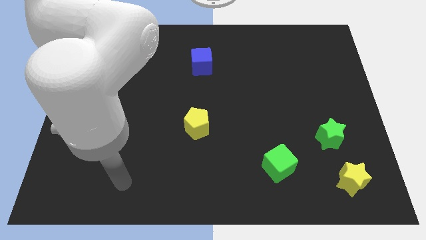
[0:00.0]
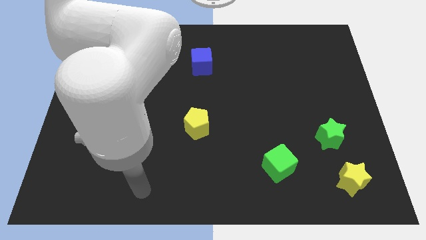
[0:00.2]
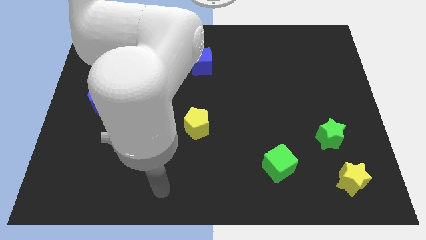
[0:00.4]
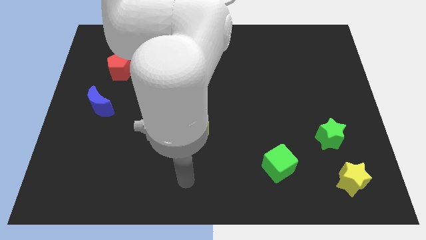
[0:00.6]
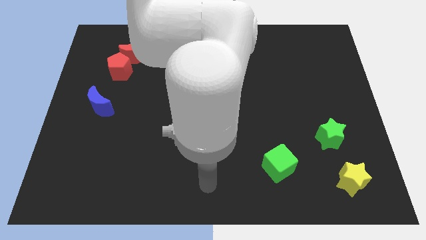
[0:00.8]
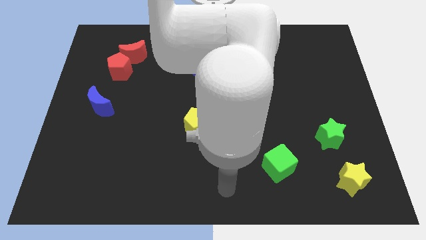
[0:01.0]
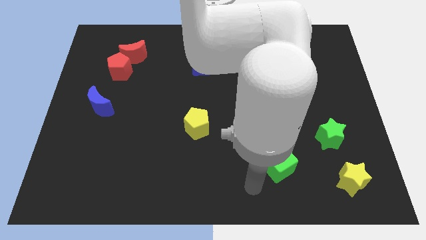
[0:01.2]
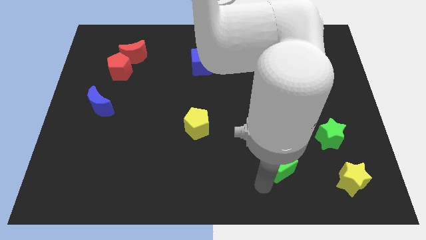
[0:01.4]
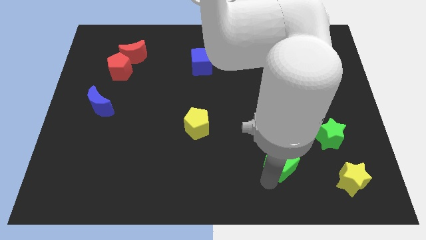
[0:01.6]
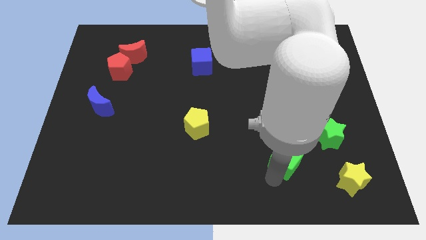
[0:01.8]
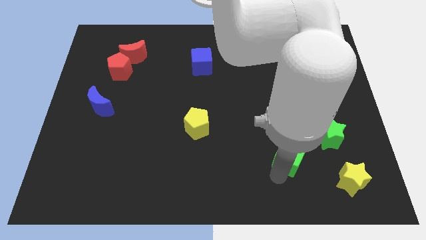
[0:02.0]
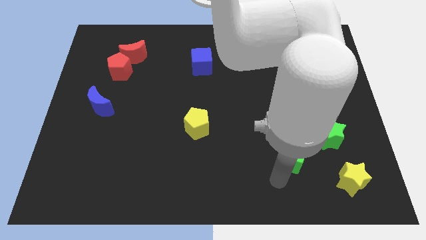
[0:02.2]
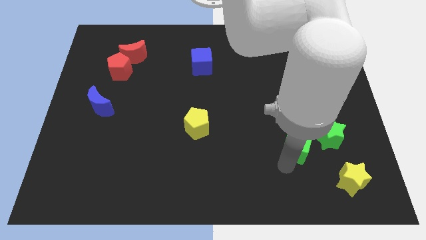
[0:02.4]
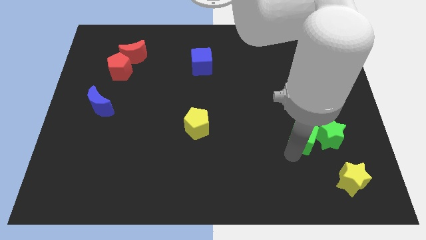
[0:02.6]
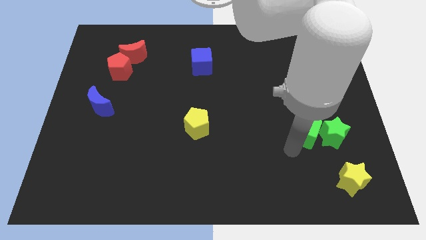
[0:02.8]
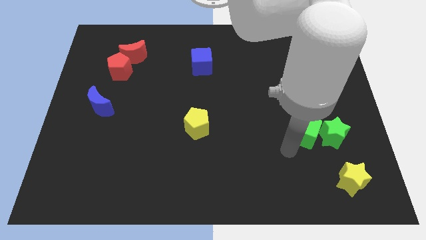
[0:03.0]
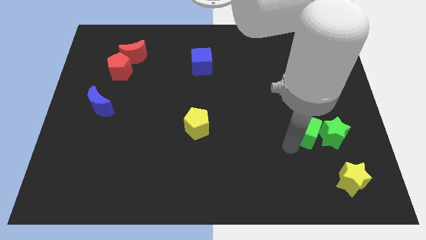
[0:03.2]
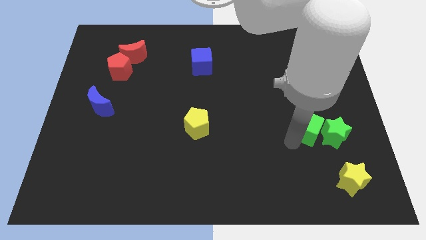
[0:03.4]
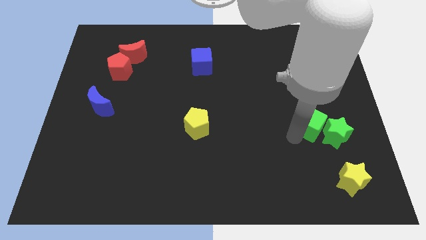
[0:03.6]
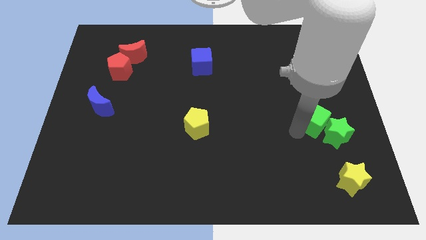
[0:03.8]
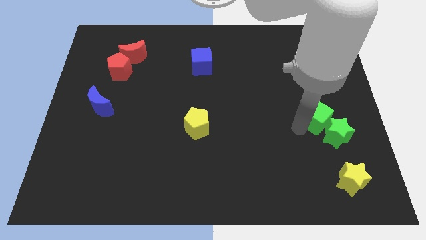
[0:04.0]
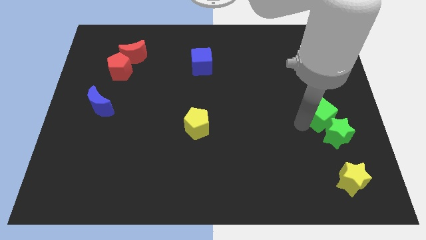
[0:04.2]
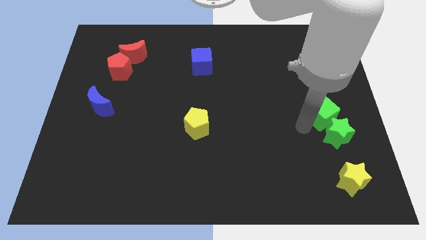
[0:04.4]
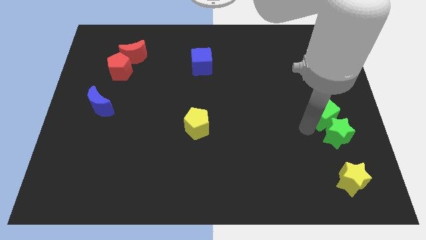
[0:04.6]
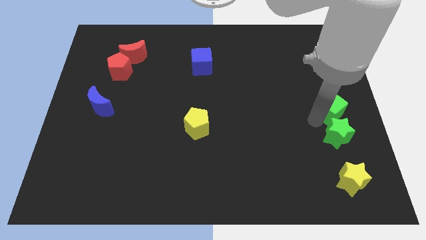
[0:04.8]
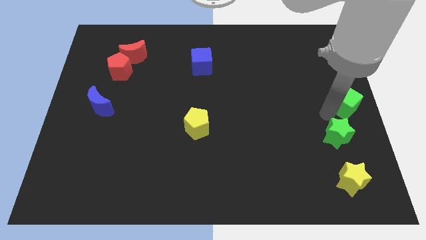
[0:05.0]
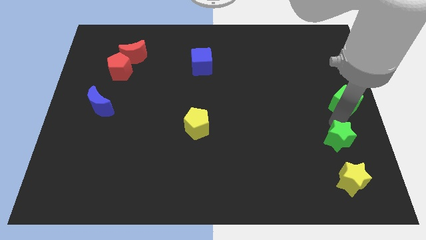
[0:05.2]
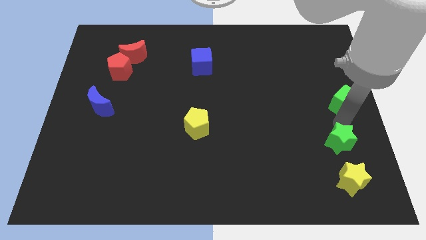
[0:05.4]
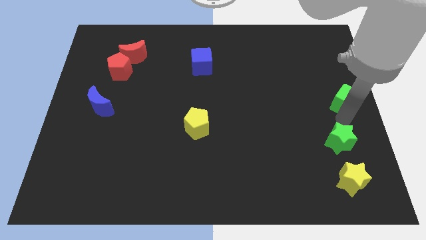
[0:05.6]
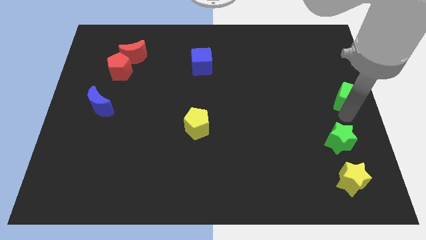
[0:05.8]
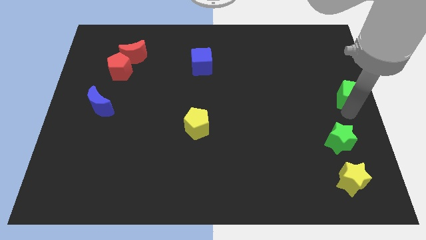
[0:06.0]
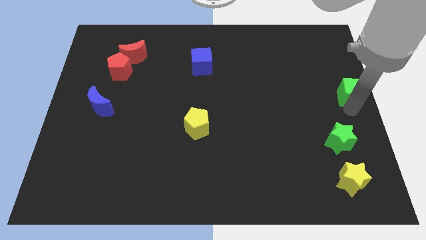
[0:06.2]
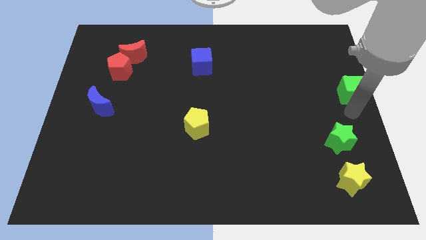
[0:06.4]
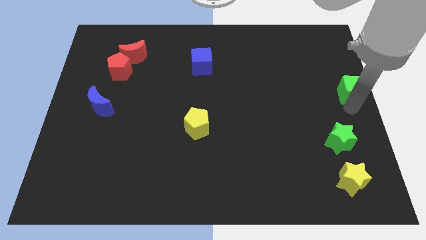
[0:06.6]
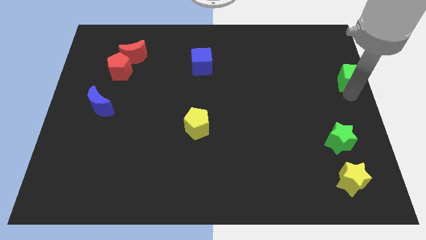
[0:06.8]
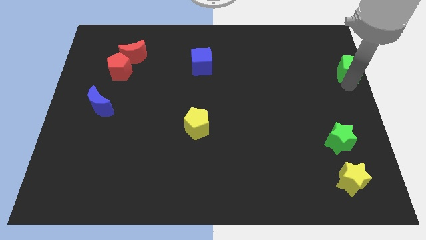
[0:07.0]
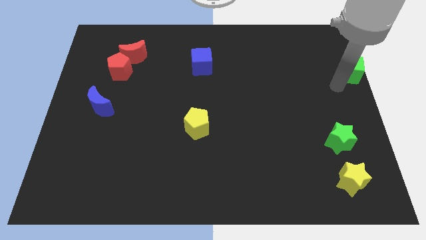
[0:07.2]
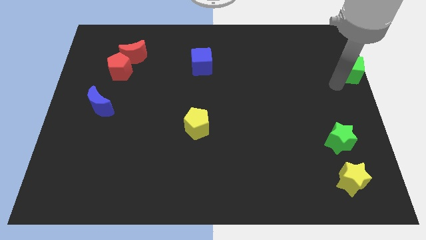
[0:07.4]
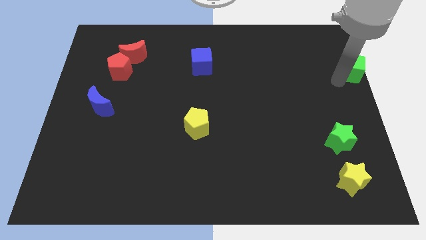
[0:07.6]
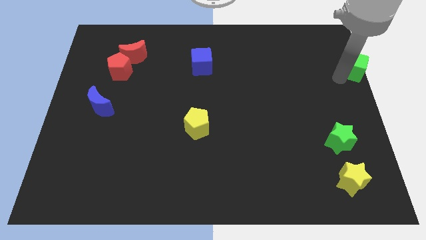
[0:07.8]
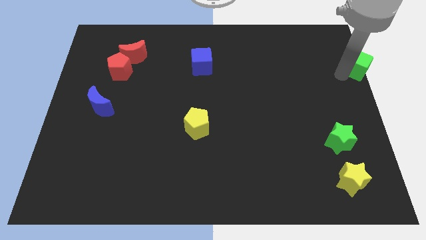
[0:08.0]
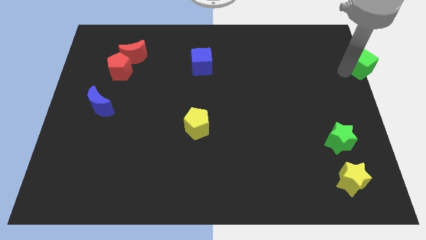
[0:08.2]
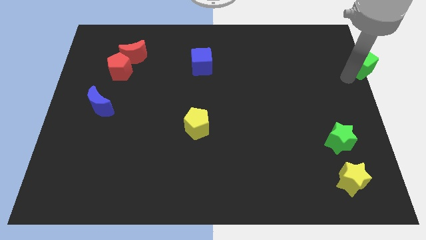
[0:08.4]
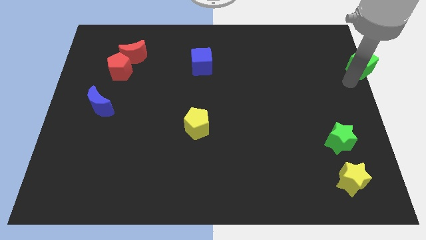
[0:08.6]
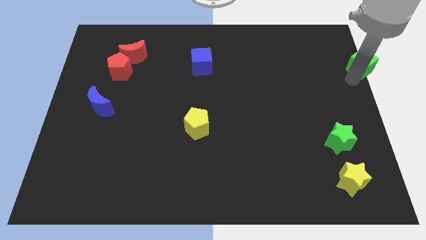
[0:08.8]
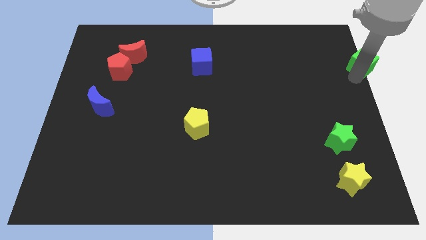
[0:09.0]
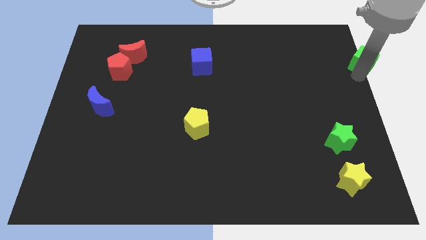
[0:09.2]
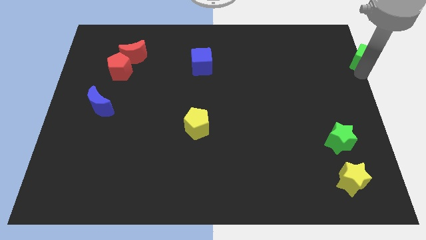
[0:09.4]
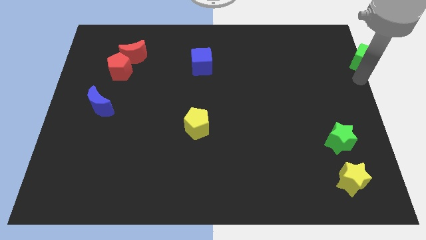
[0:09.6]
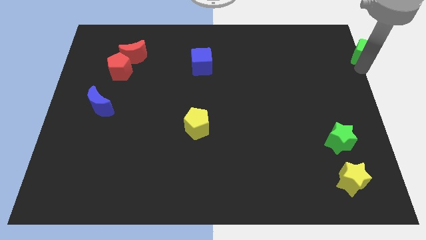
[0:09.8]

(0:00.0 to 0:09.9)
put the green cube to the top right of the board
